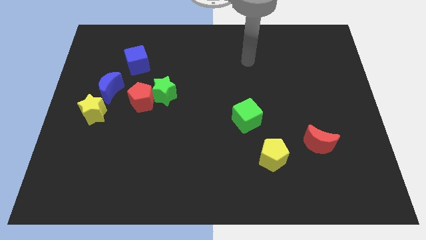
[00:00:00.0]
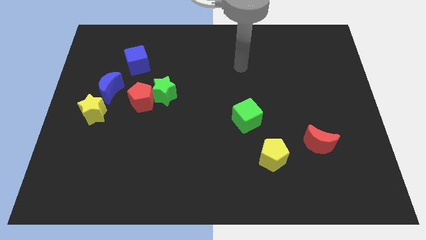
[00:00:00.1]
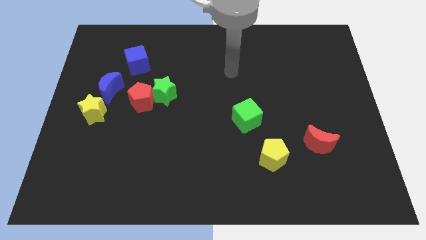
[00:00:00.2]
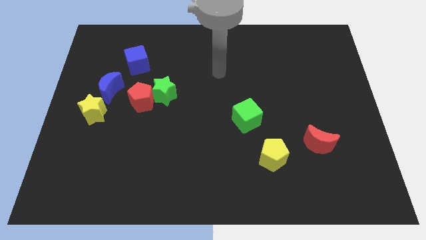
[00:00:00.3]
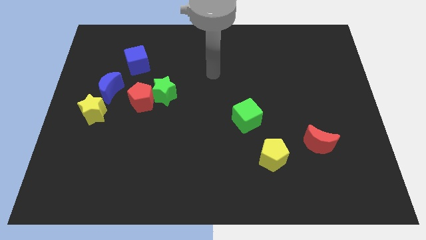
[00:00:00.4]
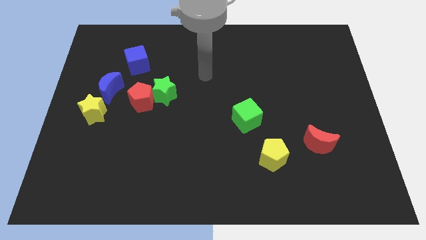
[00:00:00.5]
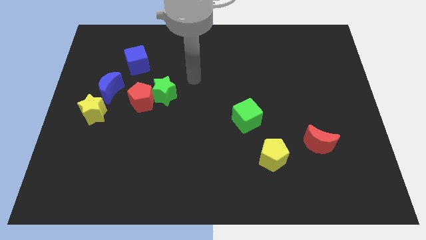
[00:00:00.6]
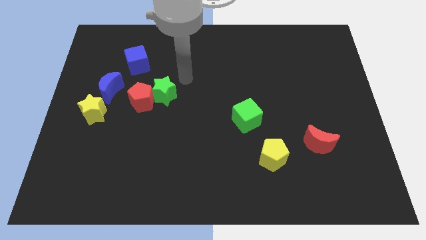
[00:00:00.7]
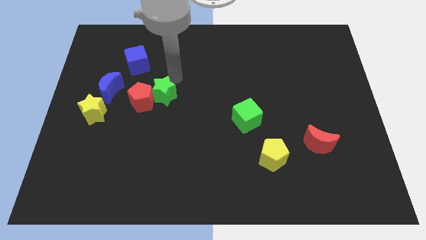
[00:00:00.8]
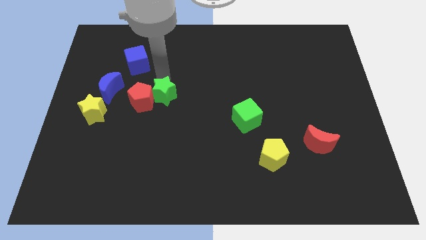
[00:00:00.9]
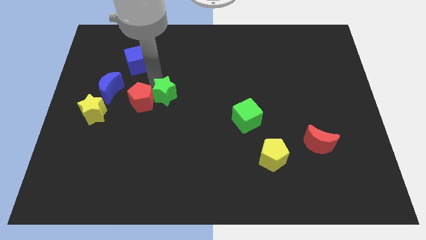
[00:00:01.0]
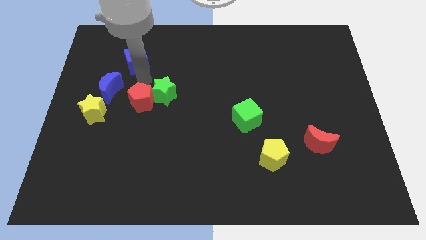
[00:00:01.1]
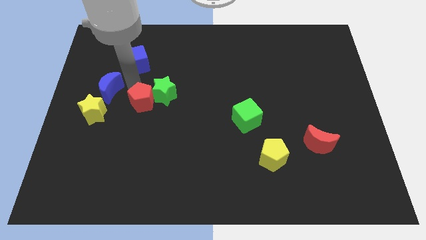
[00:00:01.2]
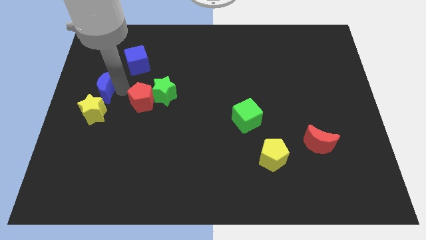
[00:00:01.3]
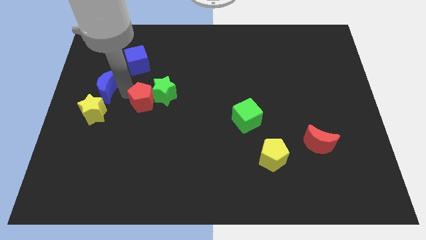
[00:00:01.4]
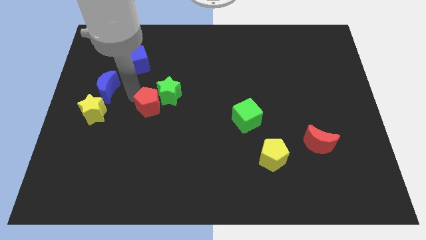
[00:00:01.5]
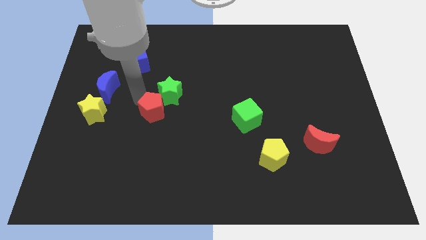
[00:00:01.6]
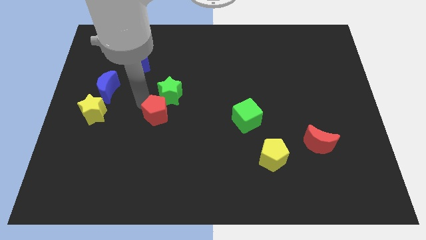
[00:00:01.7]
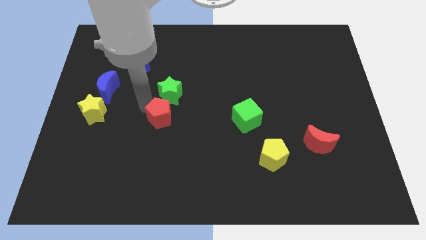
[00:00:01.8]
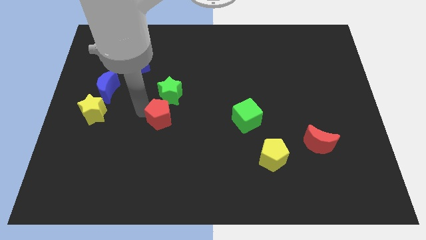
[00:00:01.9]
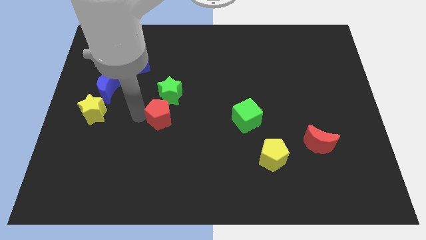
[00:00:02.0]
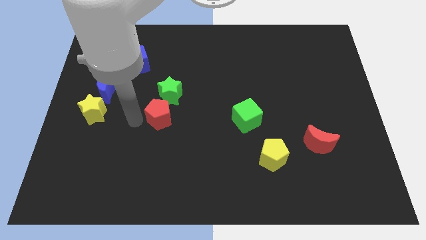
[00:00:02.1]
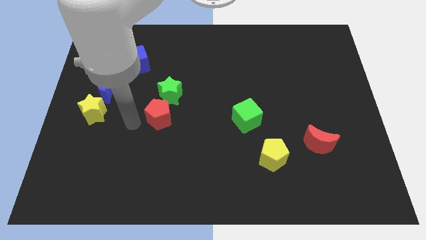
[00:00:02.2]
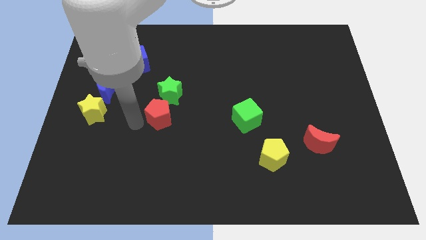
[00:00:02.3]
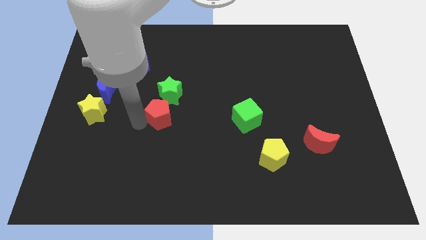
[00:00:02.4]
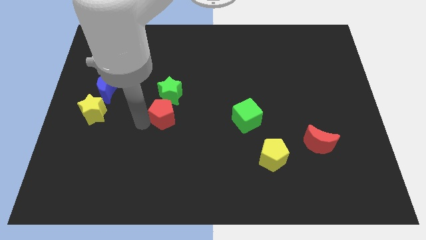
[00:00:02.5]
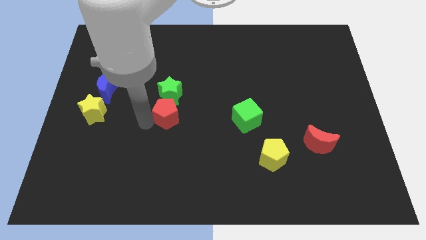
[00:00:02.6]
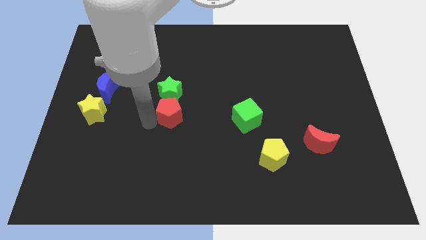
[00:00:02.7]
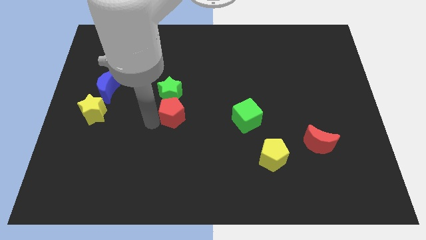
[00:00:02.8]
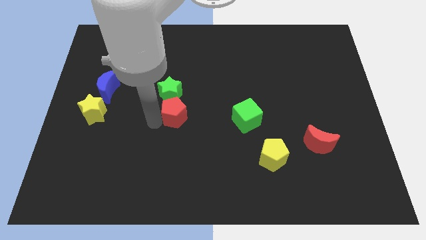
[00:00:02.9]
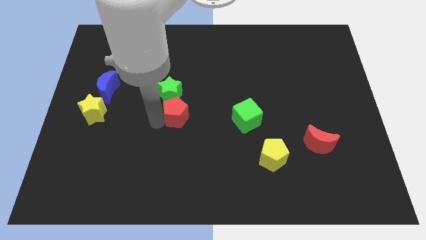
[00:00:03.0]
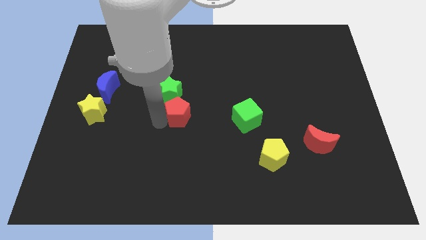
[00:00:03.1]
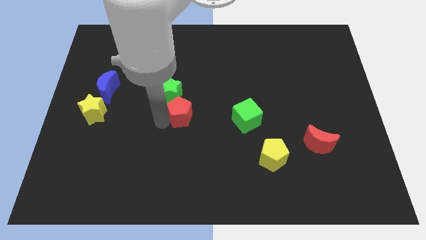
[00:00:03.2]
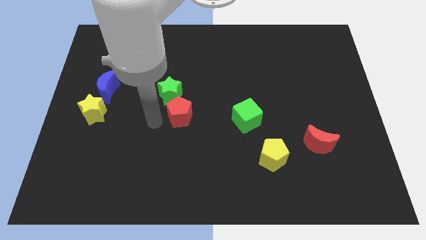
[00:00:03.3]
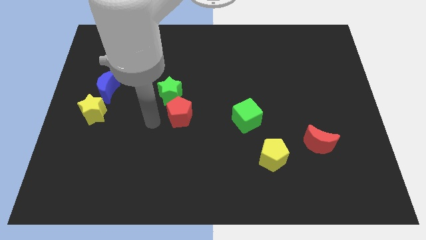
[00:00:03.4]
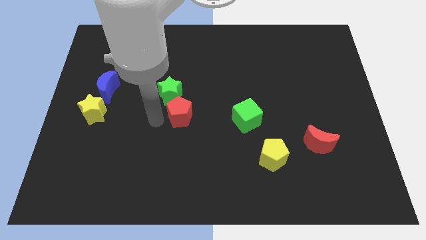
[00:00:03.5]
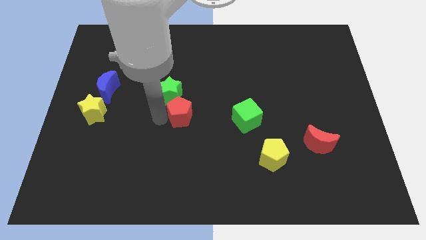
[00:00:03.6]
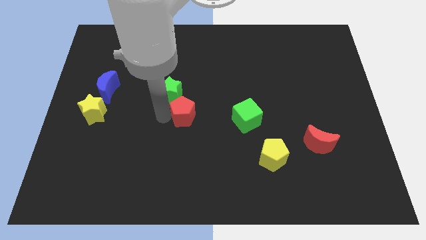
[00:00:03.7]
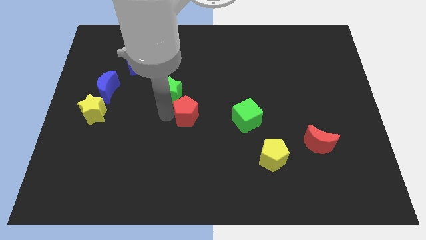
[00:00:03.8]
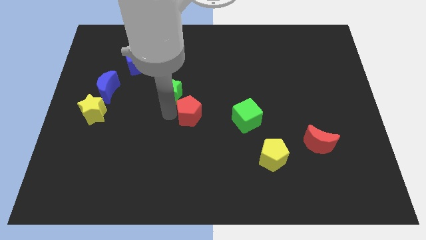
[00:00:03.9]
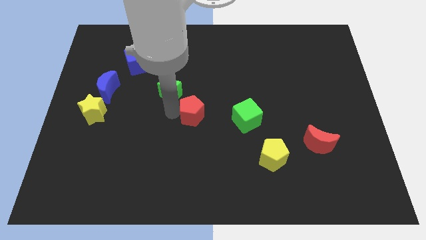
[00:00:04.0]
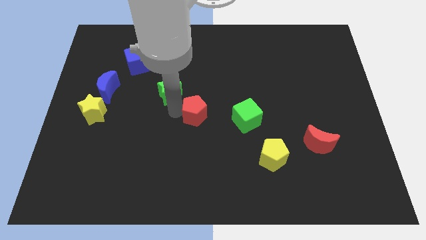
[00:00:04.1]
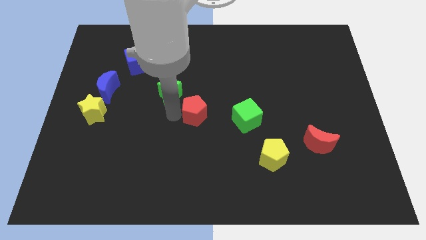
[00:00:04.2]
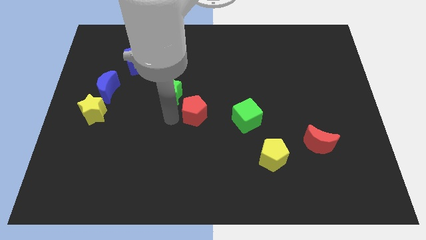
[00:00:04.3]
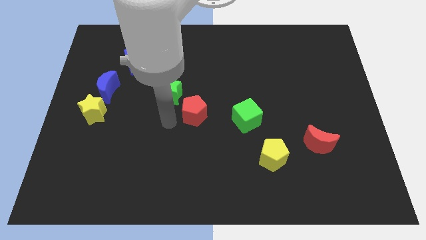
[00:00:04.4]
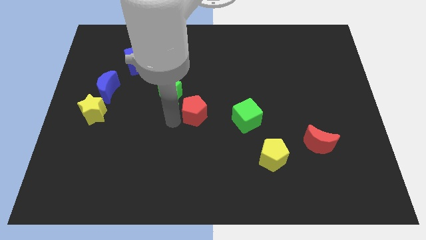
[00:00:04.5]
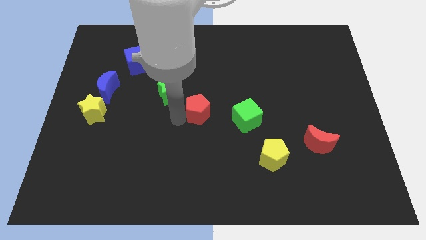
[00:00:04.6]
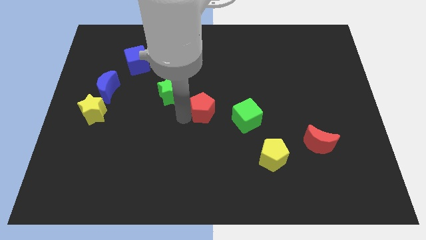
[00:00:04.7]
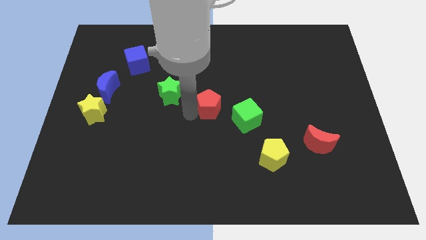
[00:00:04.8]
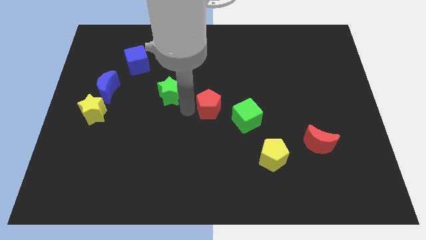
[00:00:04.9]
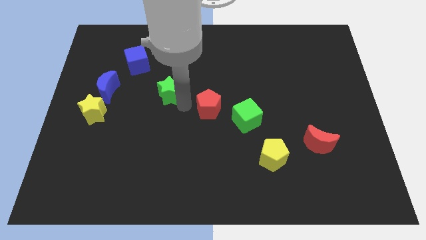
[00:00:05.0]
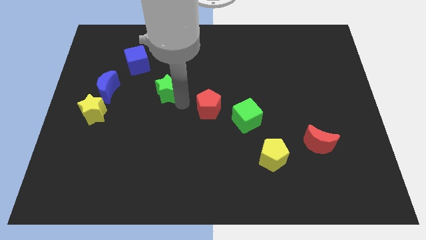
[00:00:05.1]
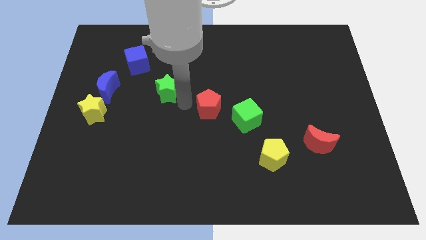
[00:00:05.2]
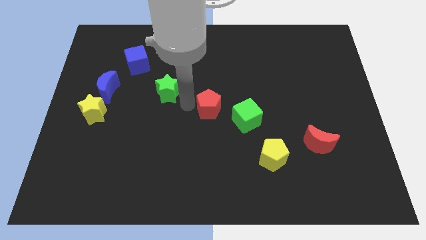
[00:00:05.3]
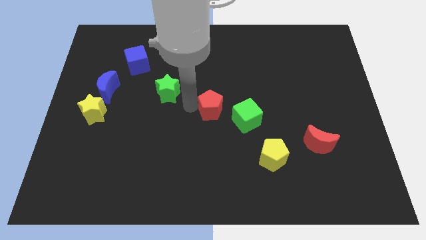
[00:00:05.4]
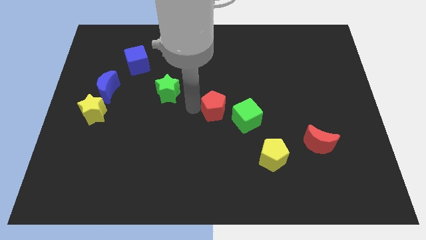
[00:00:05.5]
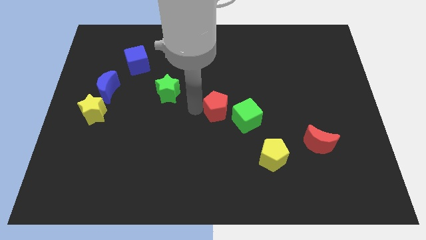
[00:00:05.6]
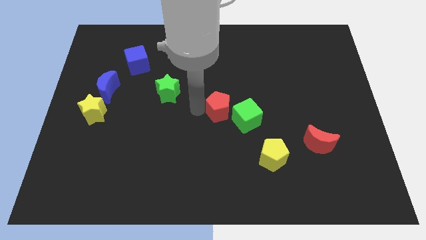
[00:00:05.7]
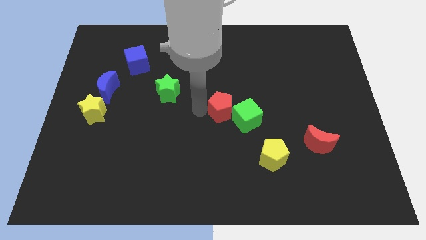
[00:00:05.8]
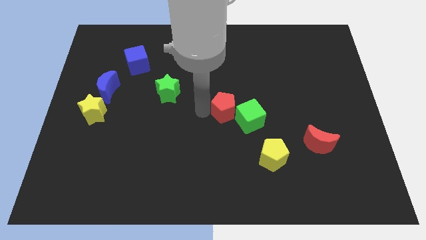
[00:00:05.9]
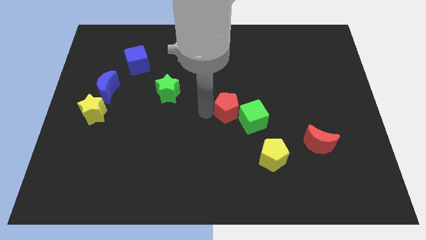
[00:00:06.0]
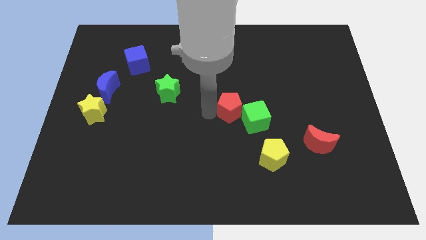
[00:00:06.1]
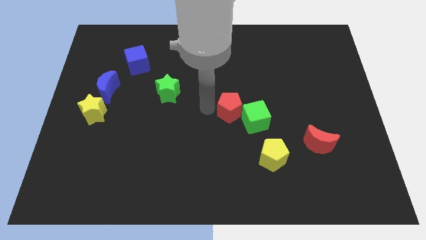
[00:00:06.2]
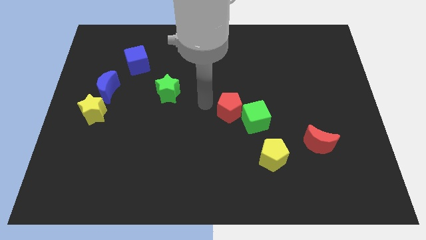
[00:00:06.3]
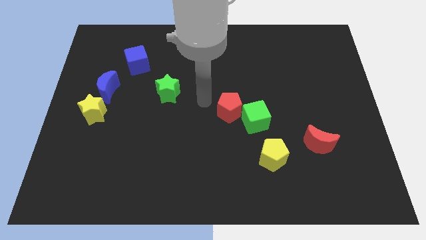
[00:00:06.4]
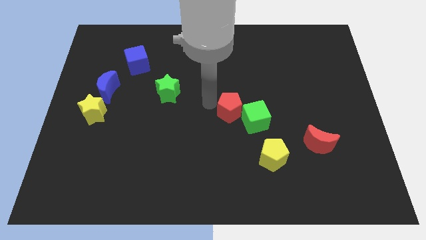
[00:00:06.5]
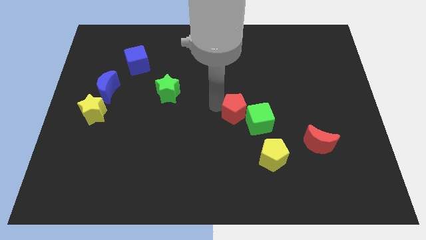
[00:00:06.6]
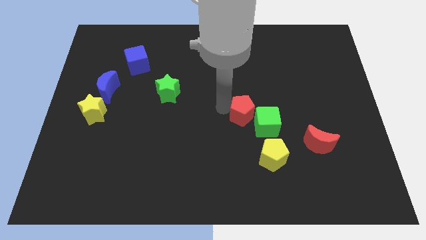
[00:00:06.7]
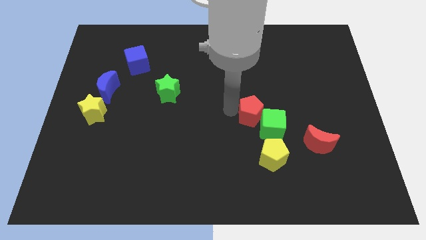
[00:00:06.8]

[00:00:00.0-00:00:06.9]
move the red pentagon close to the green cube
